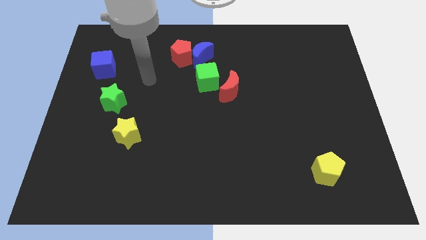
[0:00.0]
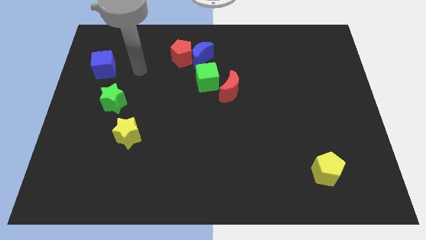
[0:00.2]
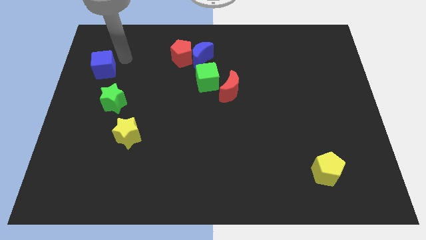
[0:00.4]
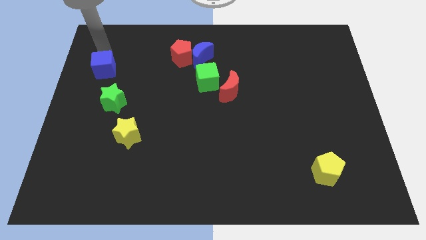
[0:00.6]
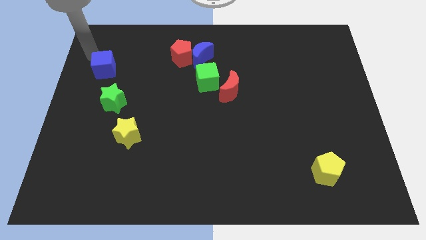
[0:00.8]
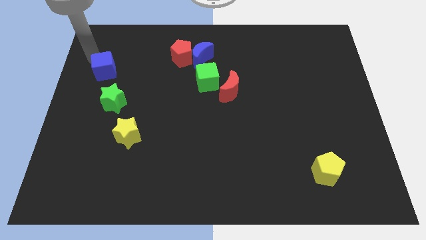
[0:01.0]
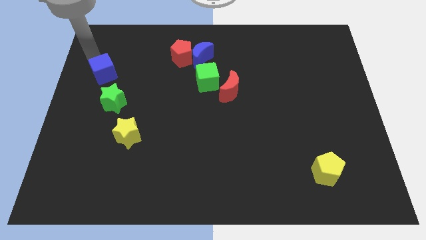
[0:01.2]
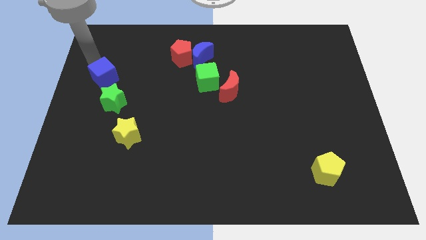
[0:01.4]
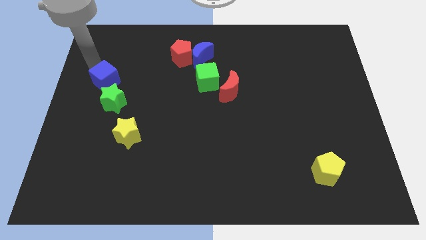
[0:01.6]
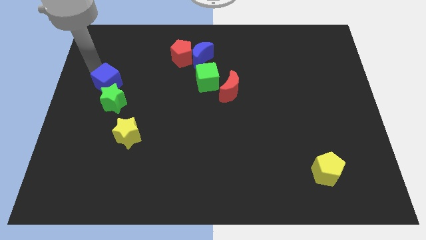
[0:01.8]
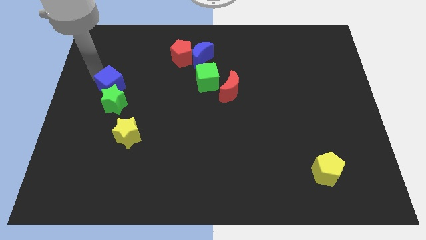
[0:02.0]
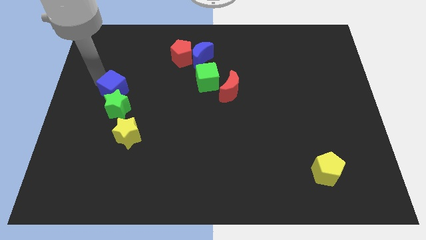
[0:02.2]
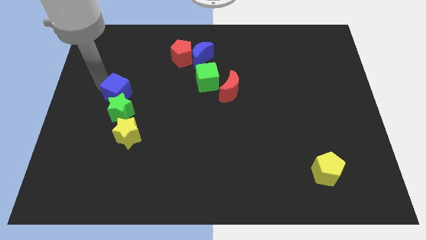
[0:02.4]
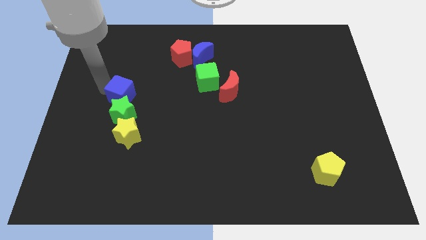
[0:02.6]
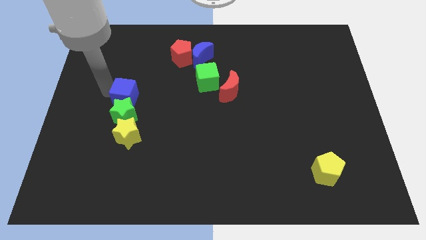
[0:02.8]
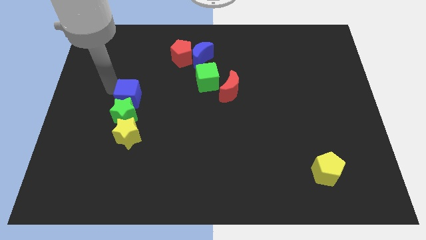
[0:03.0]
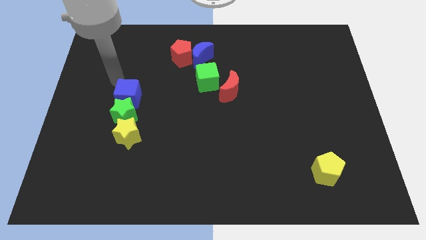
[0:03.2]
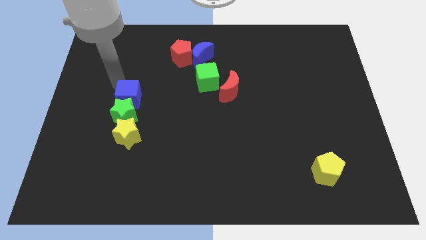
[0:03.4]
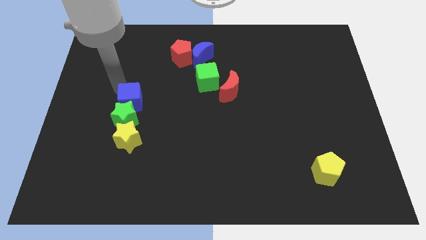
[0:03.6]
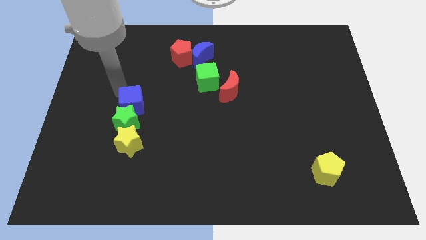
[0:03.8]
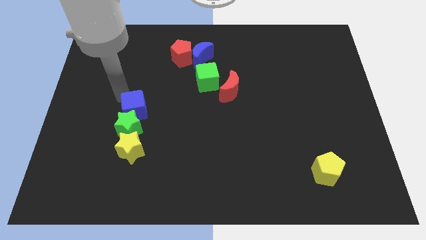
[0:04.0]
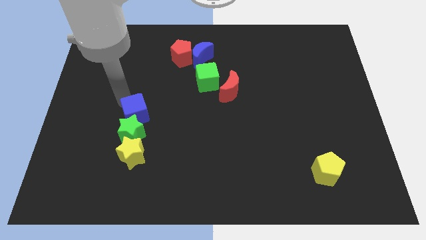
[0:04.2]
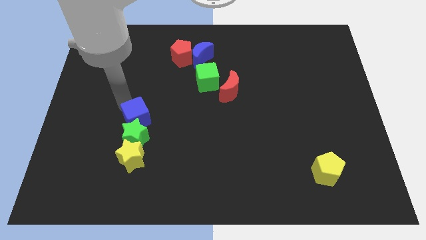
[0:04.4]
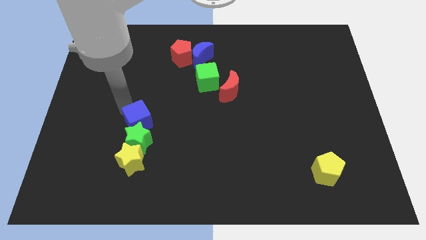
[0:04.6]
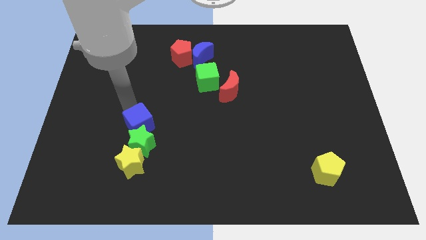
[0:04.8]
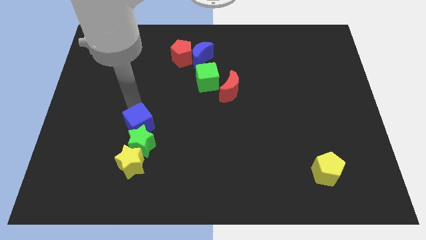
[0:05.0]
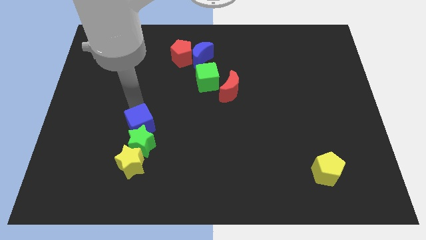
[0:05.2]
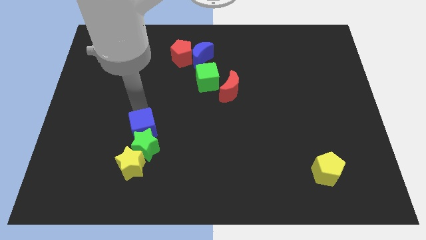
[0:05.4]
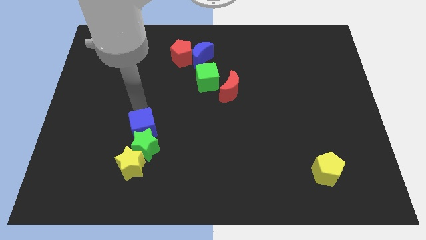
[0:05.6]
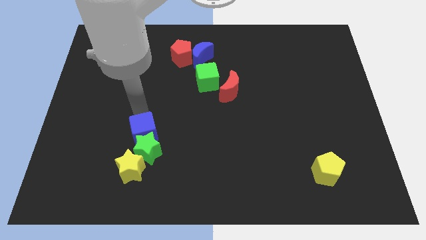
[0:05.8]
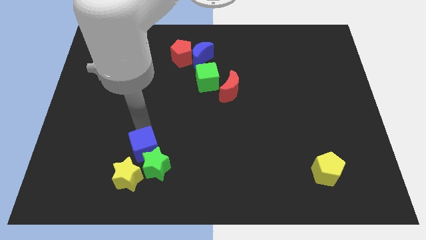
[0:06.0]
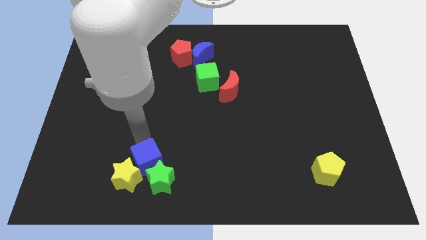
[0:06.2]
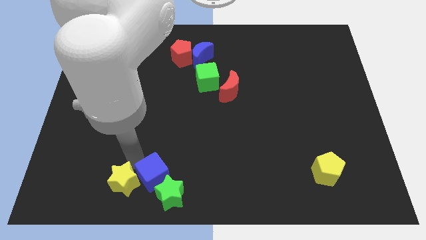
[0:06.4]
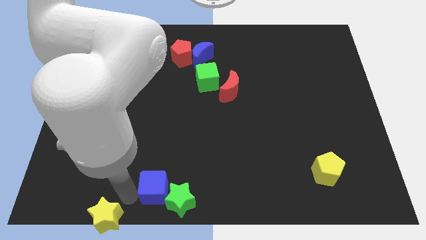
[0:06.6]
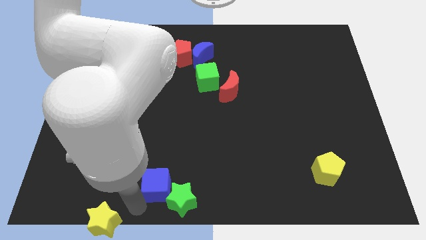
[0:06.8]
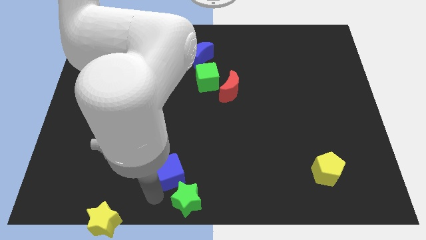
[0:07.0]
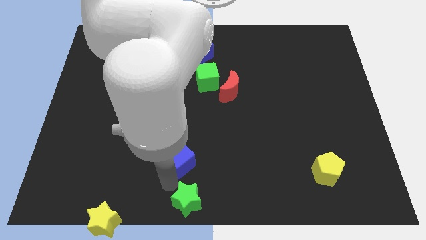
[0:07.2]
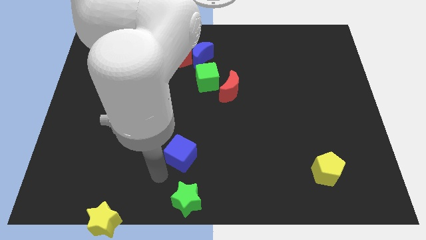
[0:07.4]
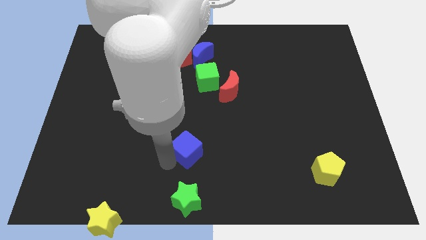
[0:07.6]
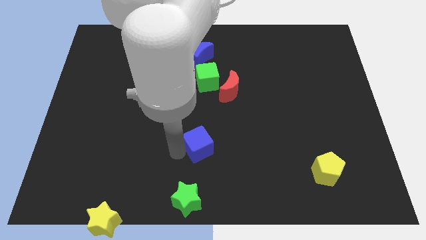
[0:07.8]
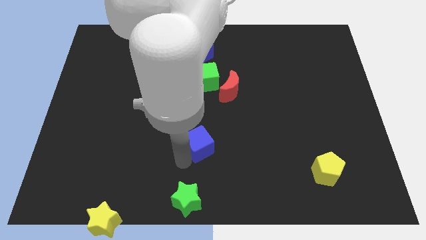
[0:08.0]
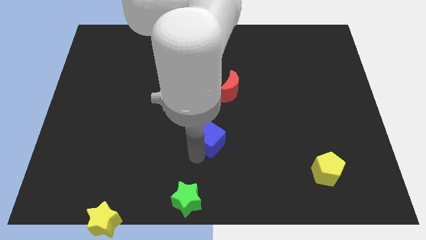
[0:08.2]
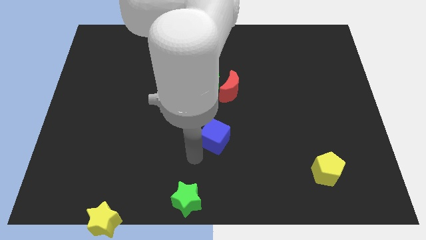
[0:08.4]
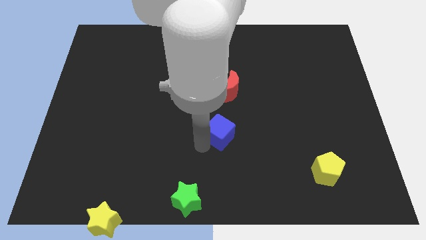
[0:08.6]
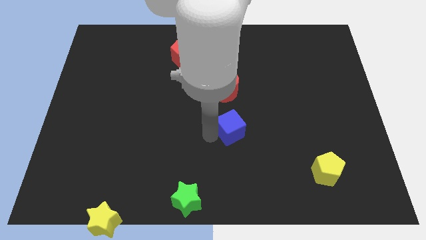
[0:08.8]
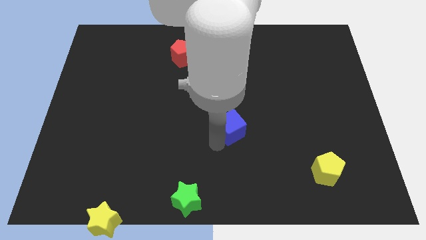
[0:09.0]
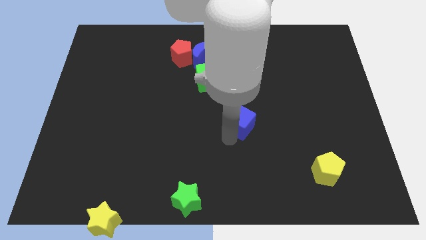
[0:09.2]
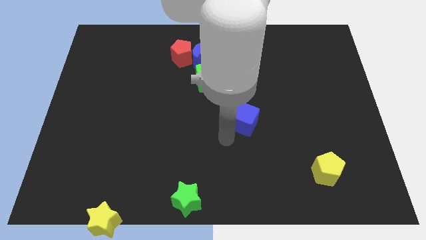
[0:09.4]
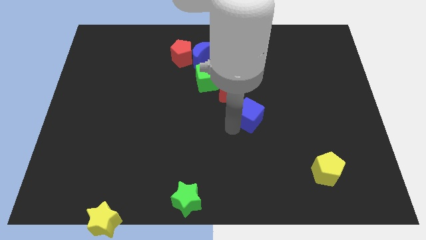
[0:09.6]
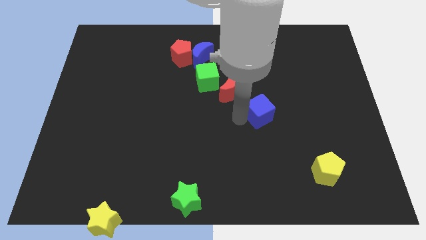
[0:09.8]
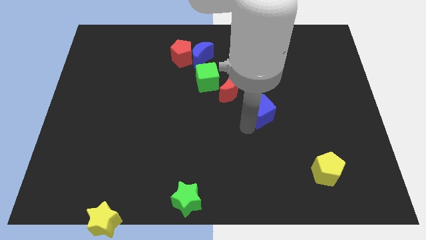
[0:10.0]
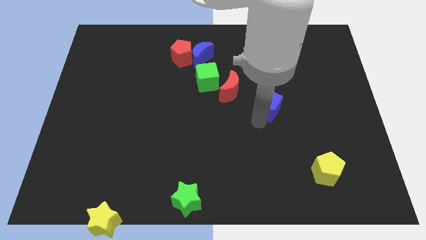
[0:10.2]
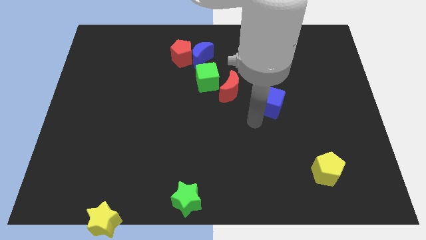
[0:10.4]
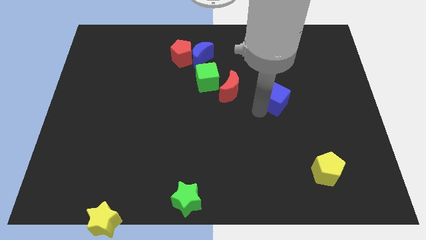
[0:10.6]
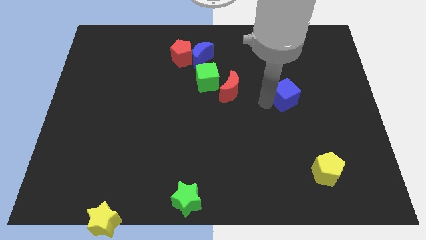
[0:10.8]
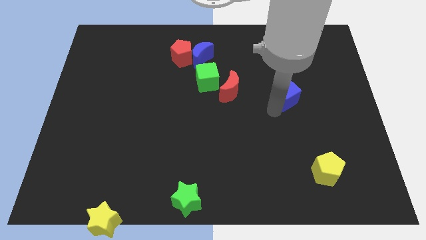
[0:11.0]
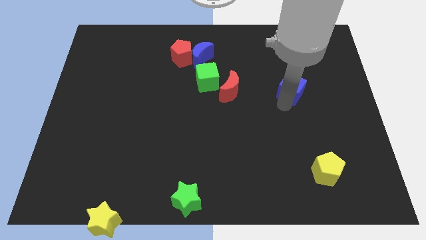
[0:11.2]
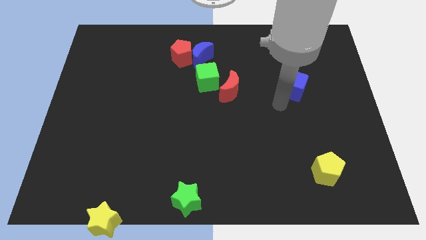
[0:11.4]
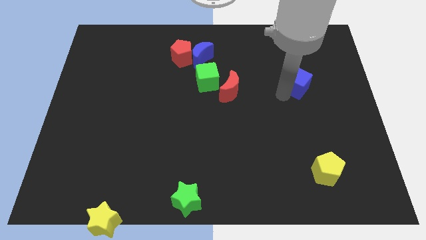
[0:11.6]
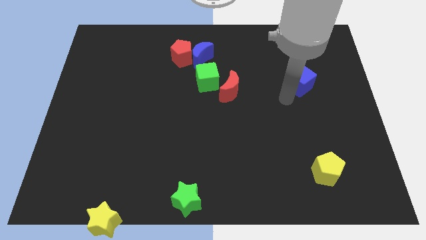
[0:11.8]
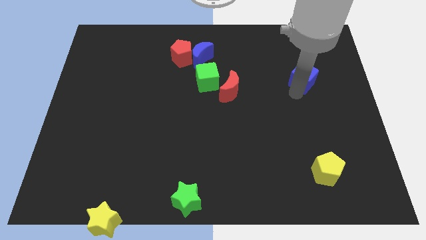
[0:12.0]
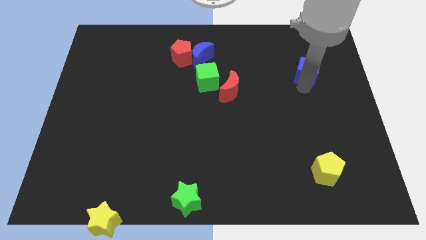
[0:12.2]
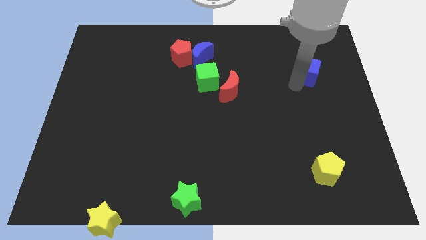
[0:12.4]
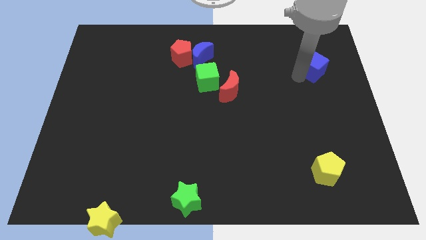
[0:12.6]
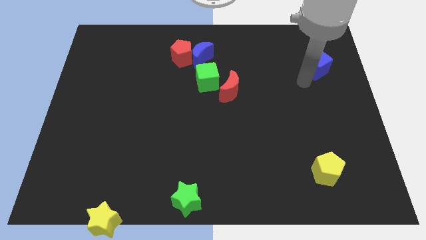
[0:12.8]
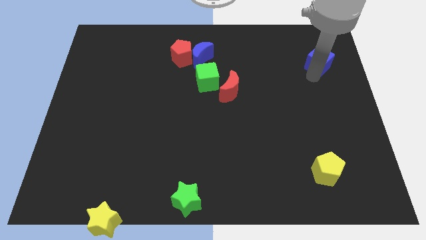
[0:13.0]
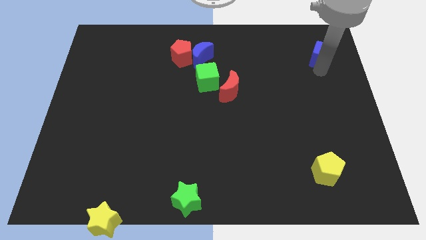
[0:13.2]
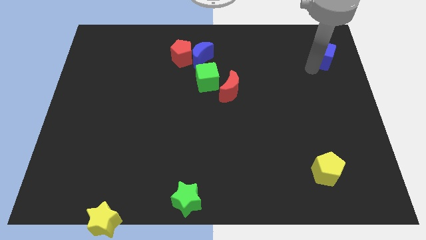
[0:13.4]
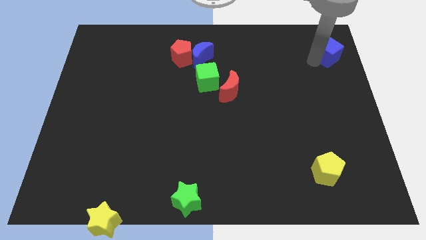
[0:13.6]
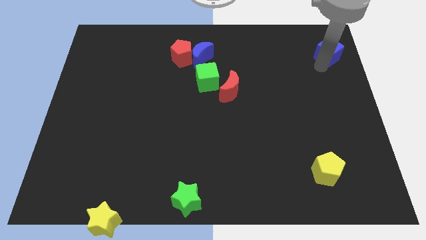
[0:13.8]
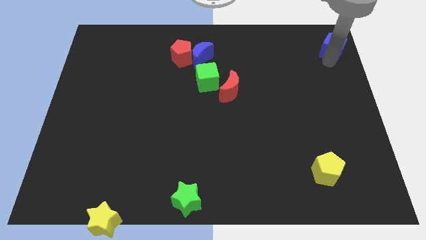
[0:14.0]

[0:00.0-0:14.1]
move the blue cube to the upper right corner
